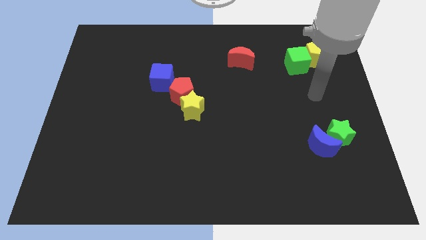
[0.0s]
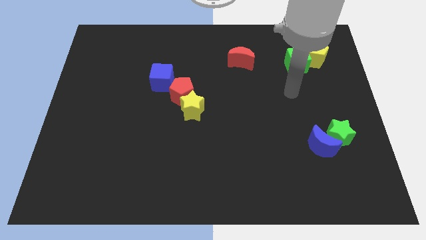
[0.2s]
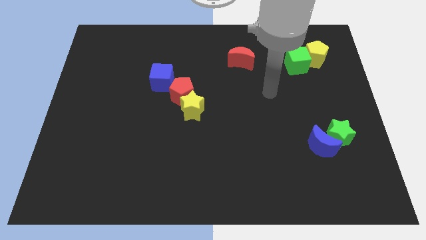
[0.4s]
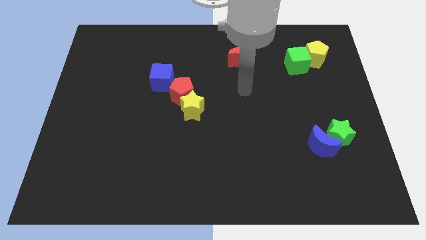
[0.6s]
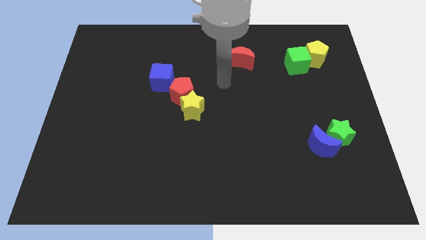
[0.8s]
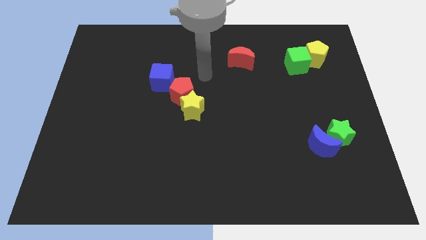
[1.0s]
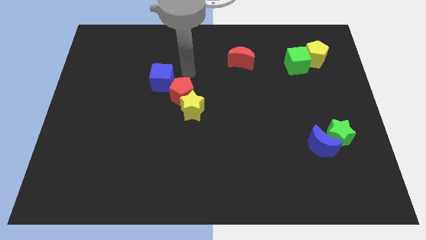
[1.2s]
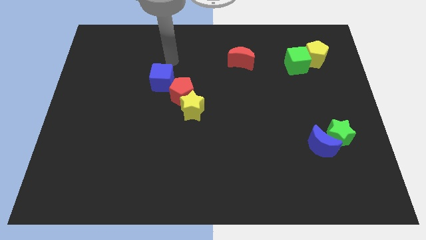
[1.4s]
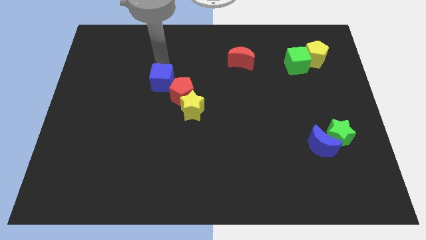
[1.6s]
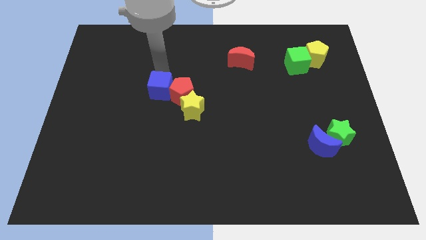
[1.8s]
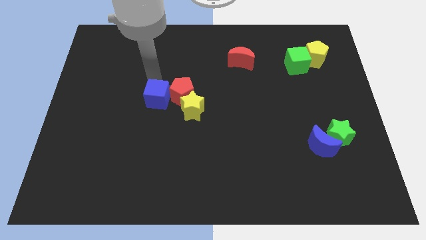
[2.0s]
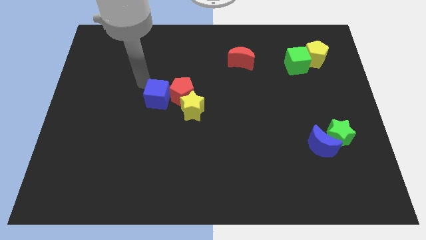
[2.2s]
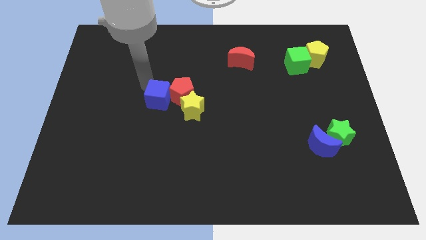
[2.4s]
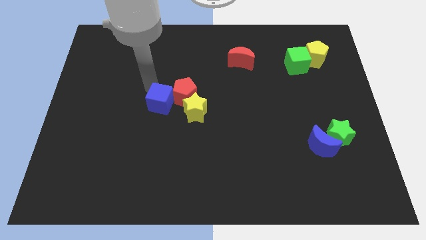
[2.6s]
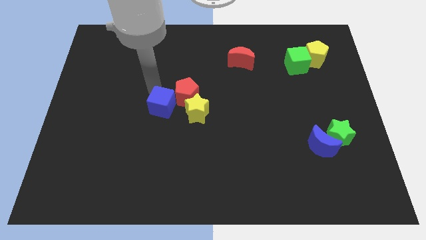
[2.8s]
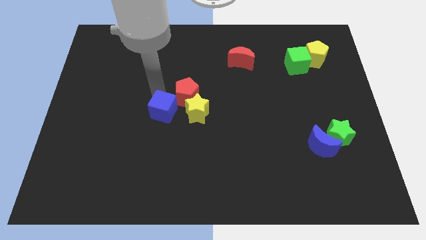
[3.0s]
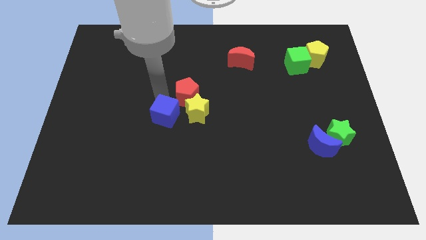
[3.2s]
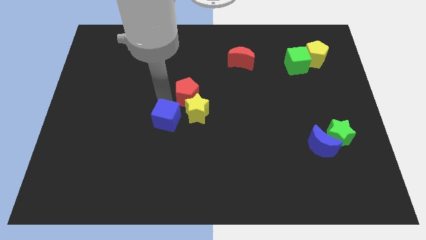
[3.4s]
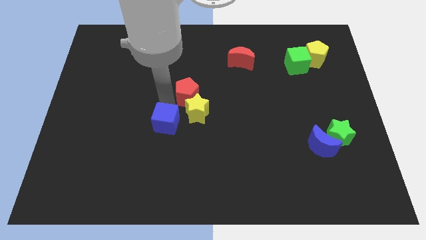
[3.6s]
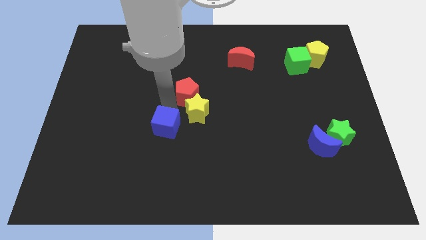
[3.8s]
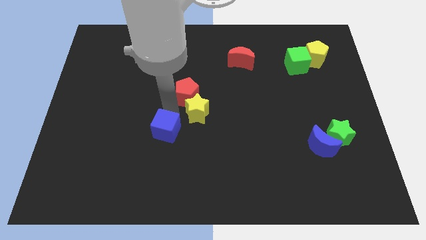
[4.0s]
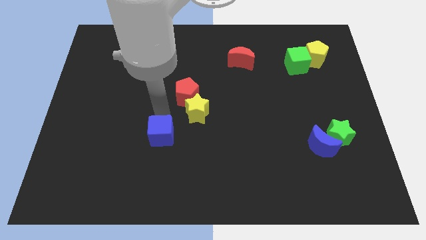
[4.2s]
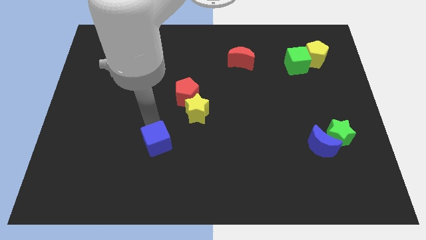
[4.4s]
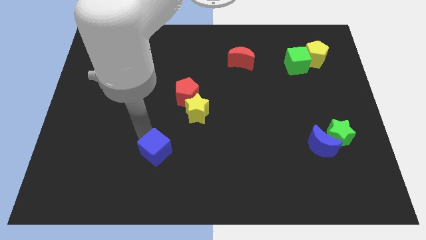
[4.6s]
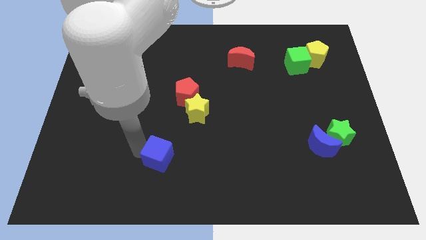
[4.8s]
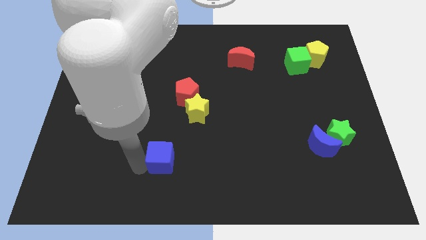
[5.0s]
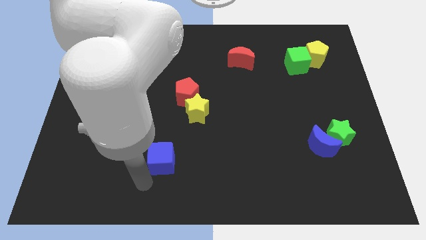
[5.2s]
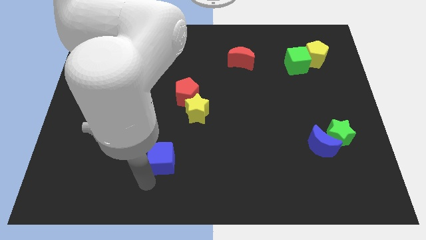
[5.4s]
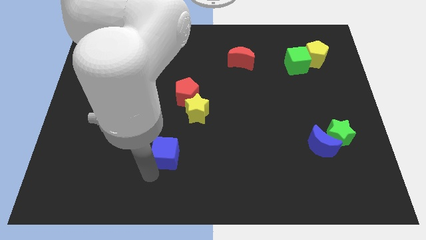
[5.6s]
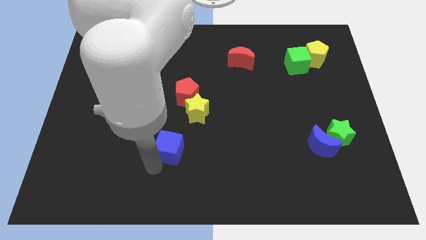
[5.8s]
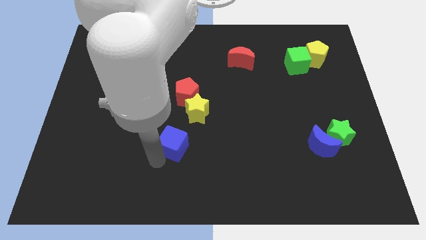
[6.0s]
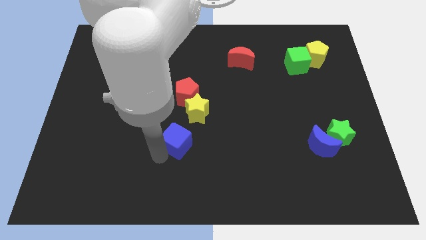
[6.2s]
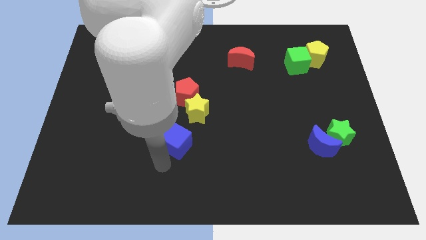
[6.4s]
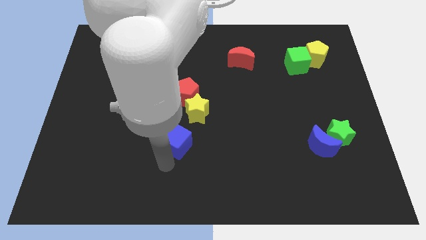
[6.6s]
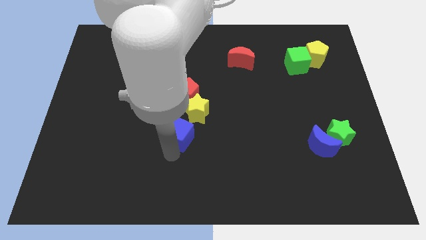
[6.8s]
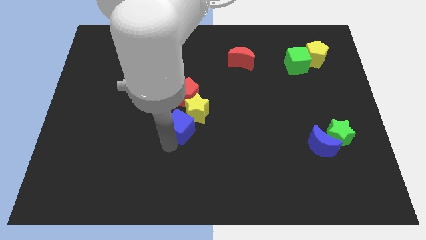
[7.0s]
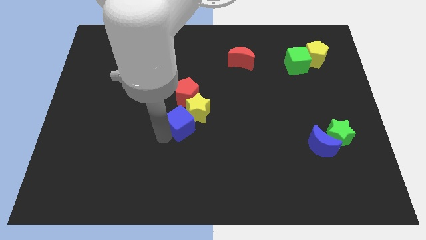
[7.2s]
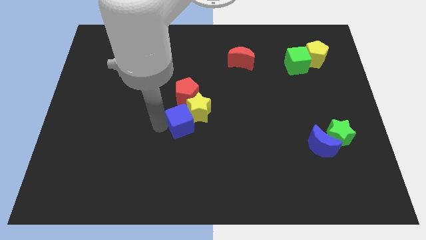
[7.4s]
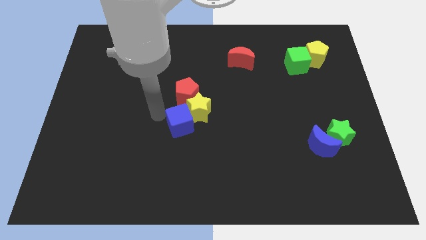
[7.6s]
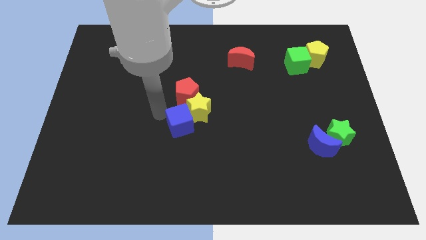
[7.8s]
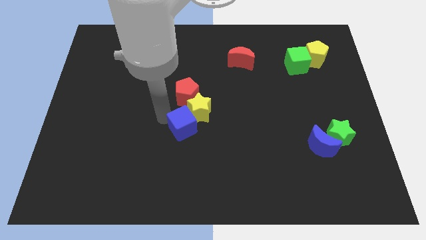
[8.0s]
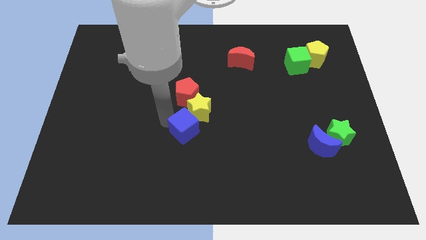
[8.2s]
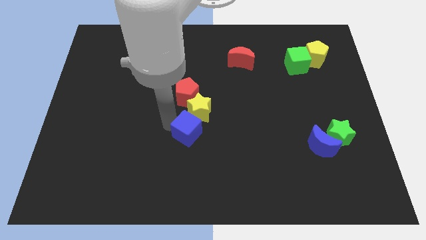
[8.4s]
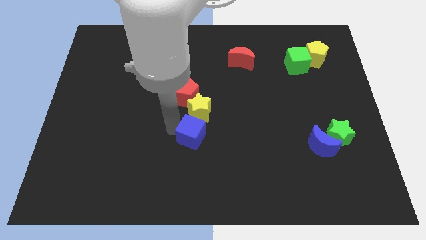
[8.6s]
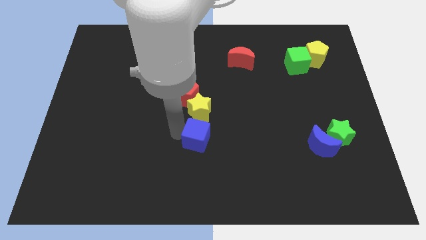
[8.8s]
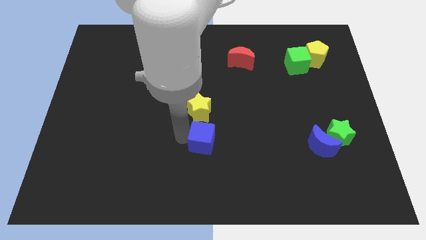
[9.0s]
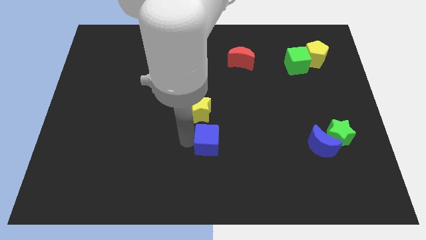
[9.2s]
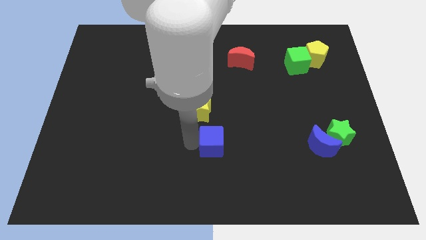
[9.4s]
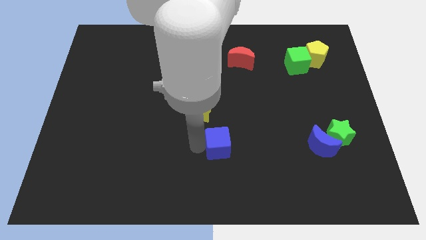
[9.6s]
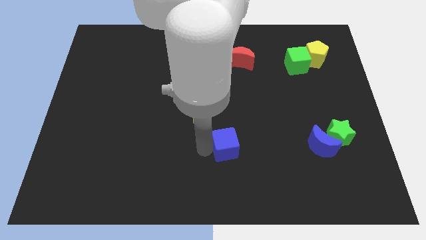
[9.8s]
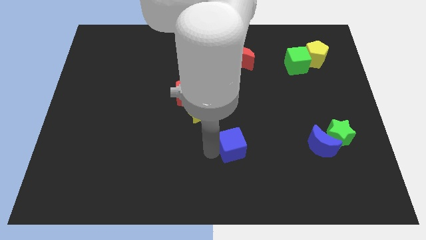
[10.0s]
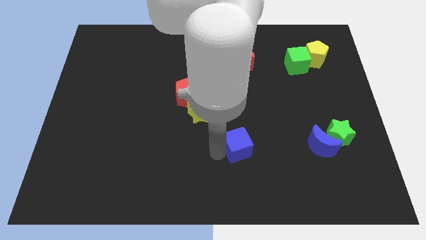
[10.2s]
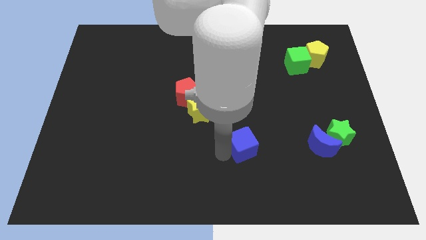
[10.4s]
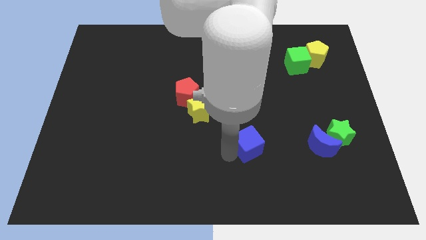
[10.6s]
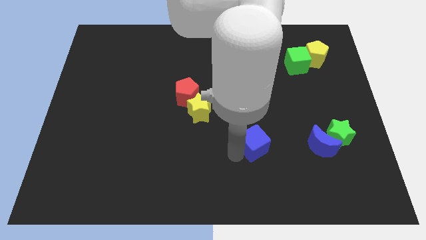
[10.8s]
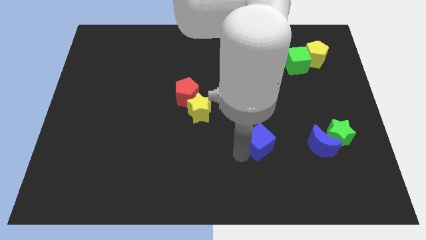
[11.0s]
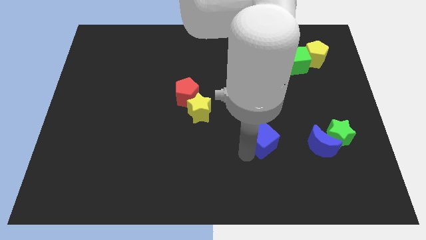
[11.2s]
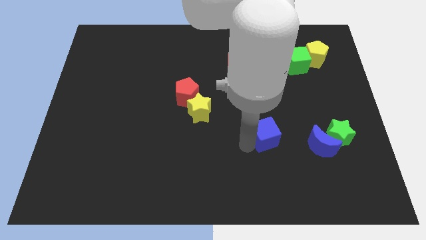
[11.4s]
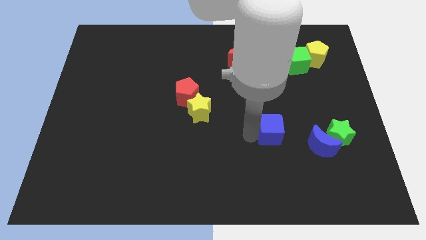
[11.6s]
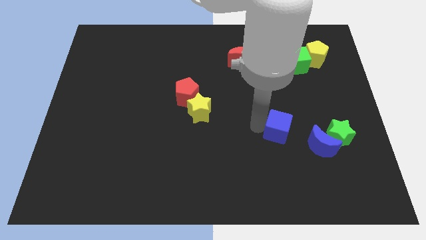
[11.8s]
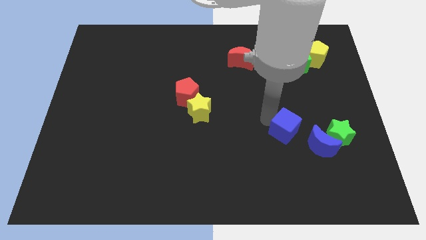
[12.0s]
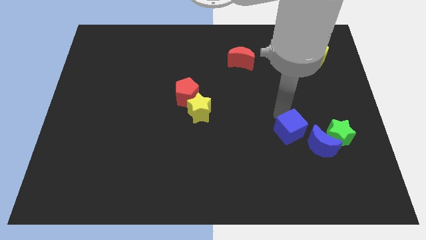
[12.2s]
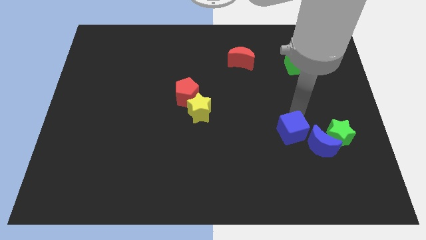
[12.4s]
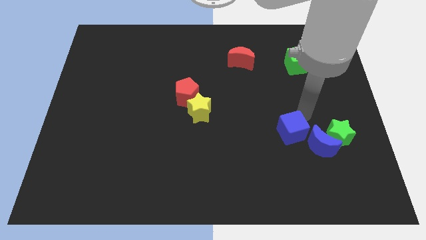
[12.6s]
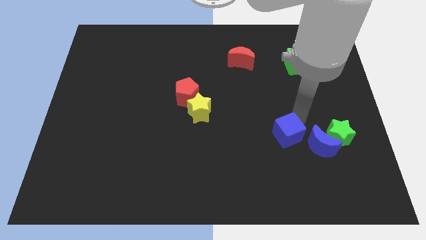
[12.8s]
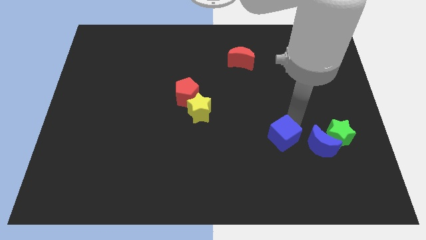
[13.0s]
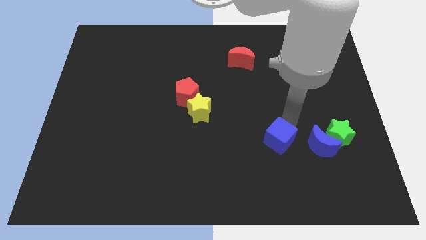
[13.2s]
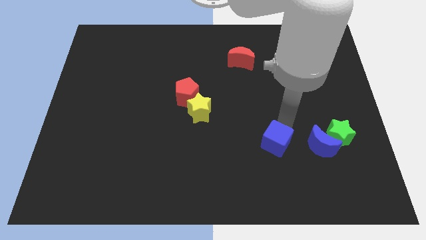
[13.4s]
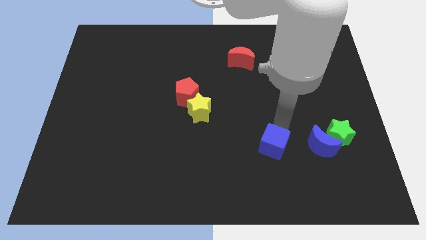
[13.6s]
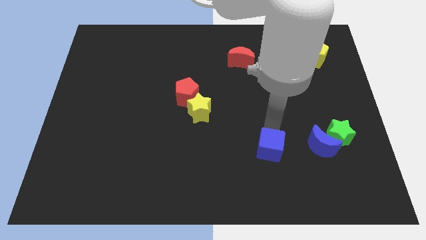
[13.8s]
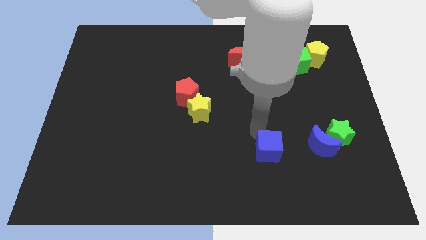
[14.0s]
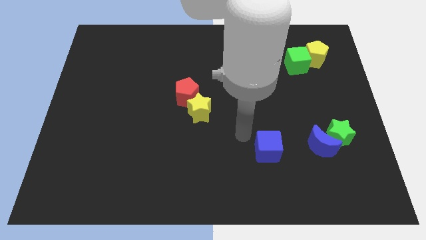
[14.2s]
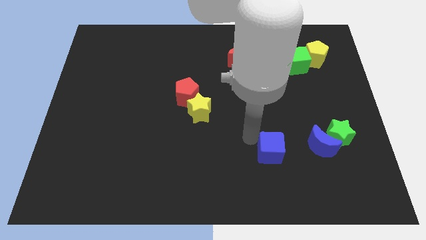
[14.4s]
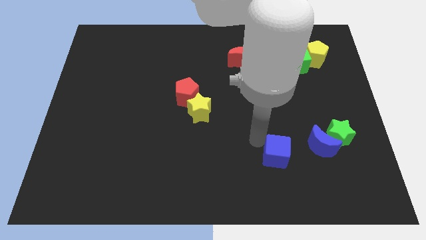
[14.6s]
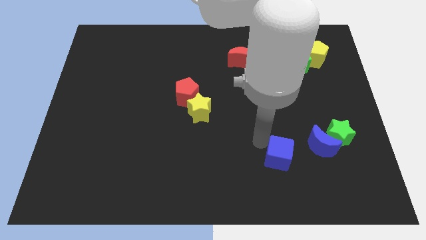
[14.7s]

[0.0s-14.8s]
put the blue cube to the bottom left side of the blue moon
